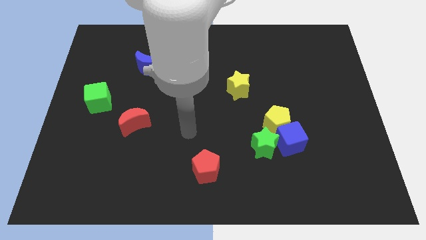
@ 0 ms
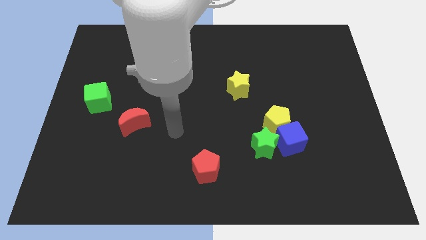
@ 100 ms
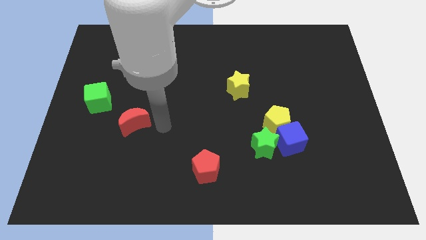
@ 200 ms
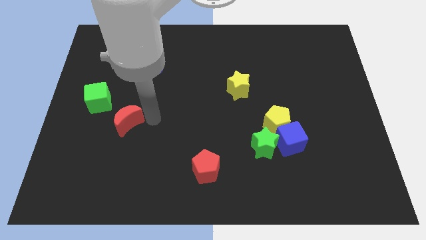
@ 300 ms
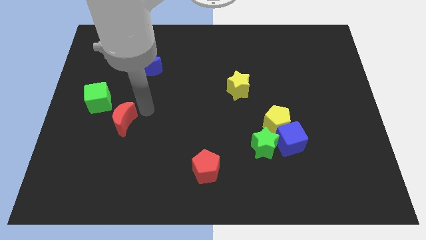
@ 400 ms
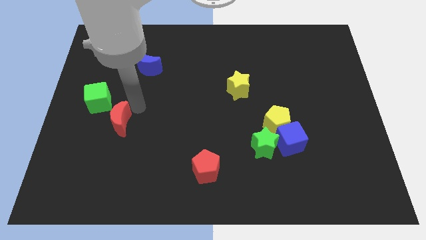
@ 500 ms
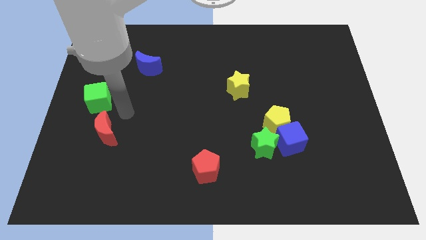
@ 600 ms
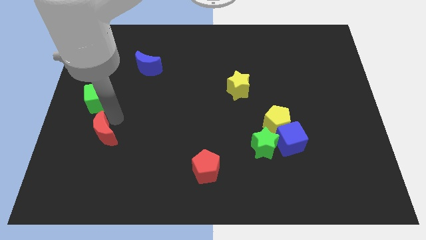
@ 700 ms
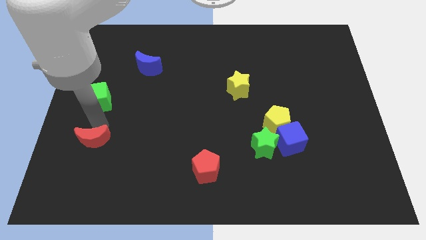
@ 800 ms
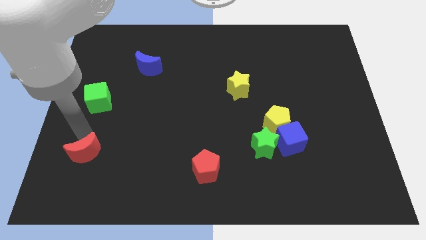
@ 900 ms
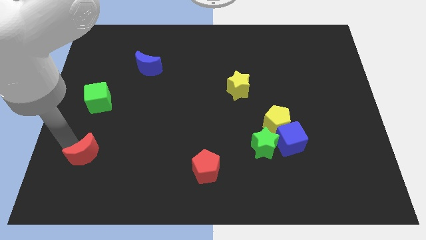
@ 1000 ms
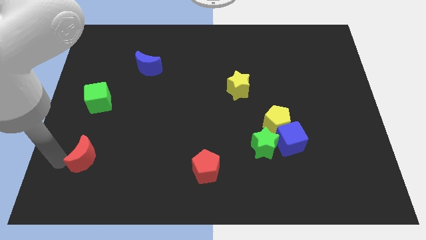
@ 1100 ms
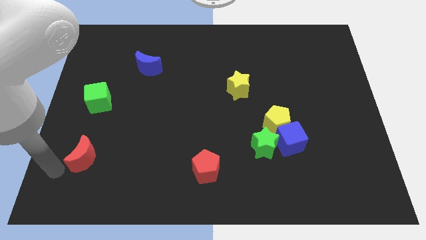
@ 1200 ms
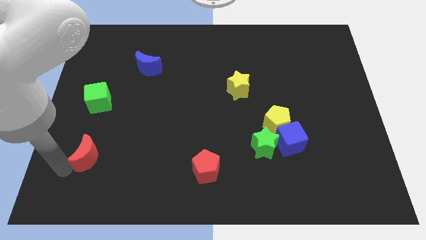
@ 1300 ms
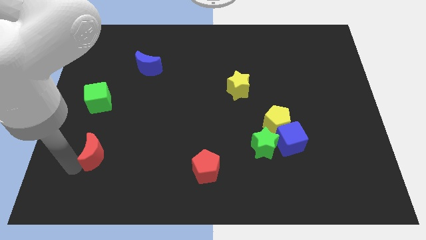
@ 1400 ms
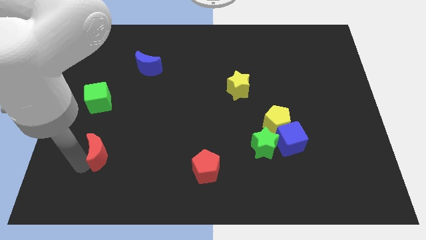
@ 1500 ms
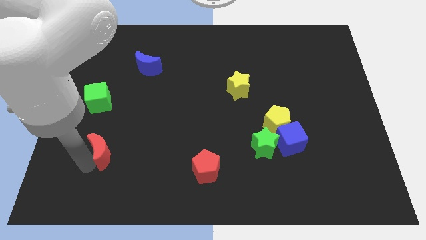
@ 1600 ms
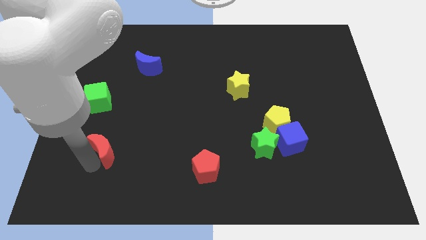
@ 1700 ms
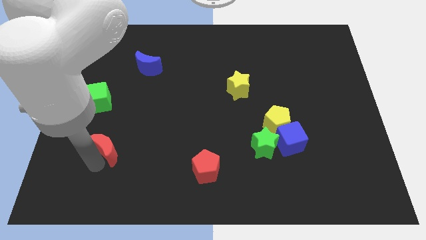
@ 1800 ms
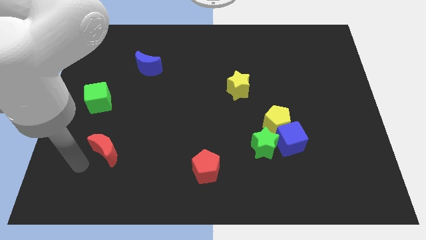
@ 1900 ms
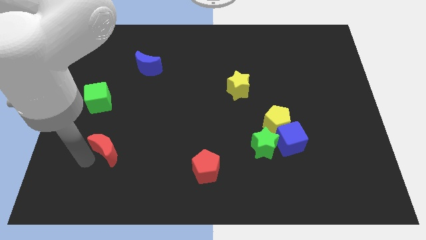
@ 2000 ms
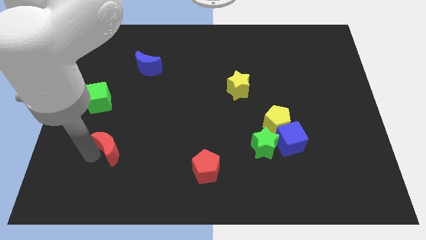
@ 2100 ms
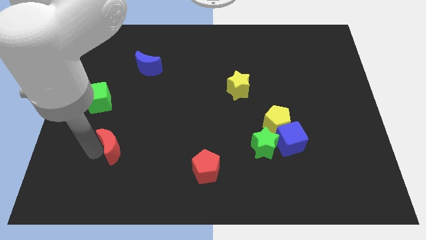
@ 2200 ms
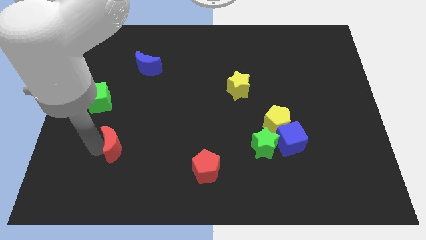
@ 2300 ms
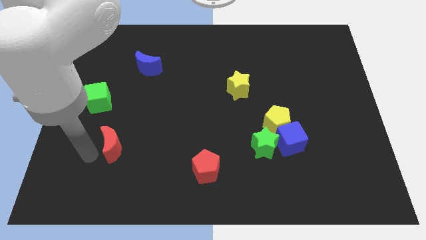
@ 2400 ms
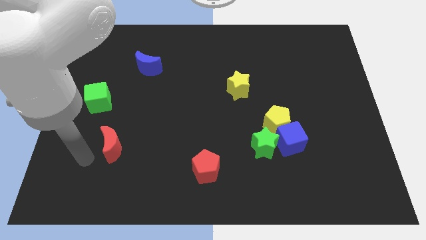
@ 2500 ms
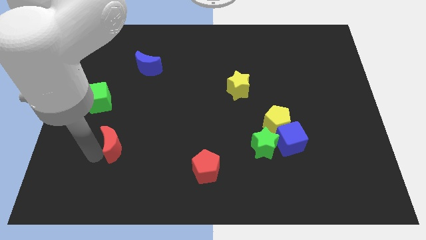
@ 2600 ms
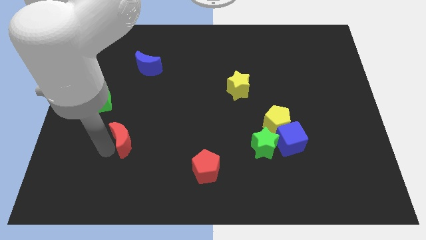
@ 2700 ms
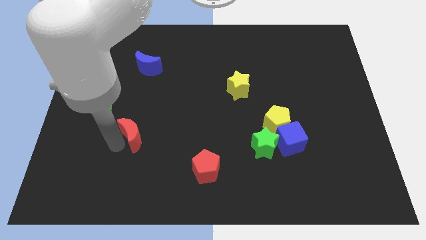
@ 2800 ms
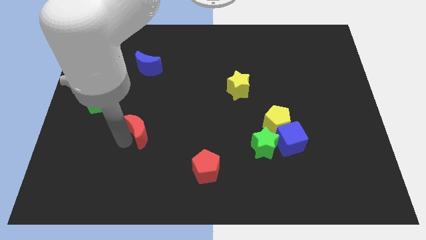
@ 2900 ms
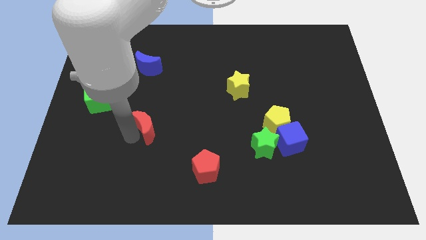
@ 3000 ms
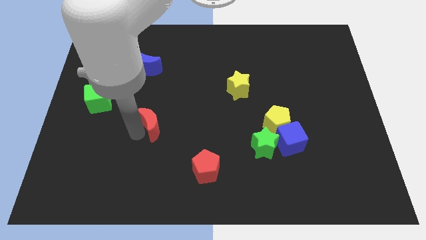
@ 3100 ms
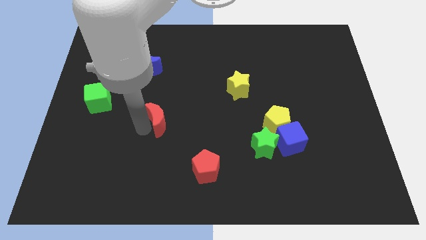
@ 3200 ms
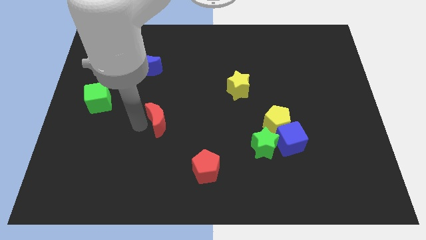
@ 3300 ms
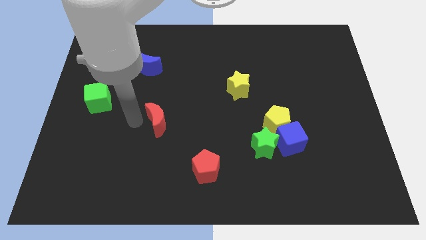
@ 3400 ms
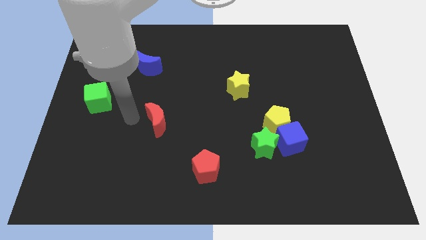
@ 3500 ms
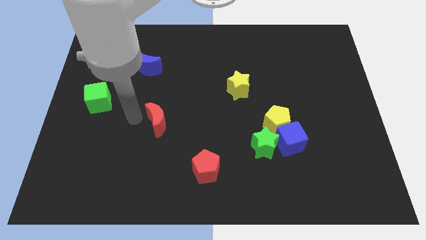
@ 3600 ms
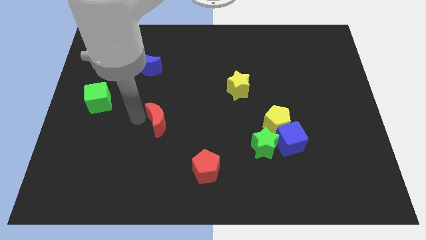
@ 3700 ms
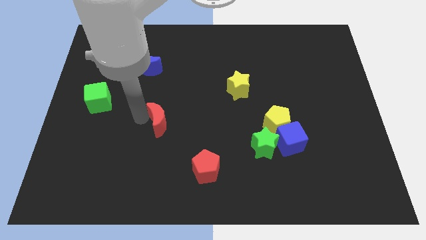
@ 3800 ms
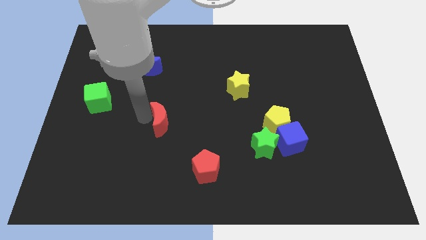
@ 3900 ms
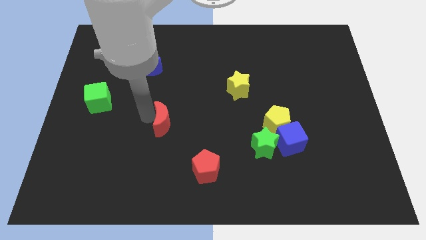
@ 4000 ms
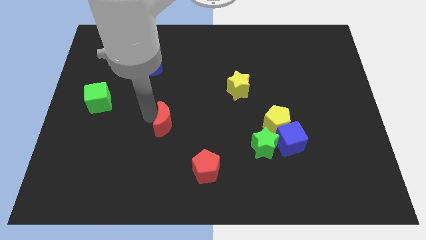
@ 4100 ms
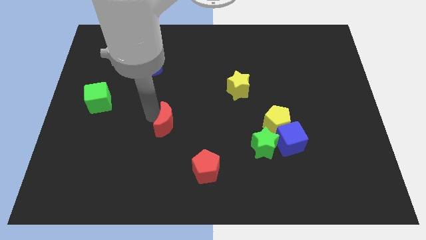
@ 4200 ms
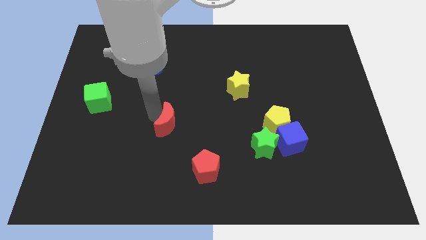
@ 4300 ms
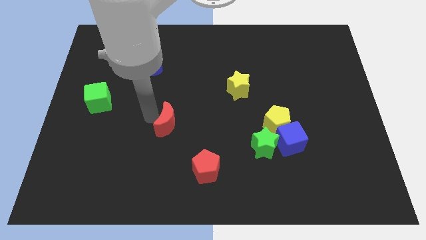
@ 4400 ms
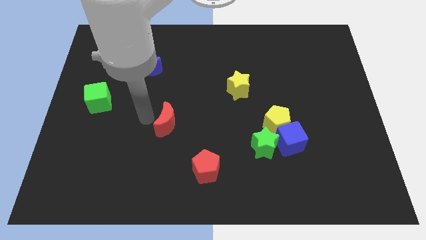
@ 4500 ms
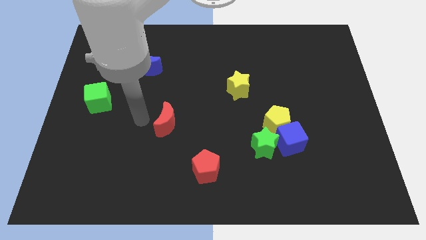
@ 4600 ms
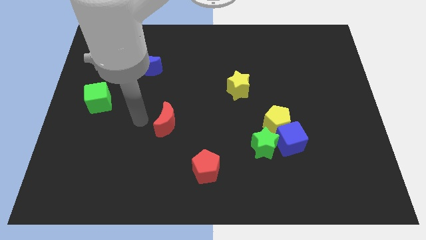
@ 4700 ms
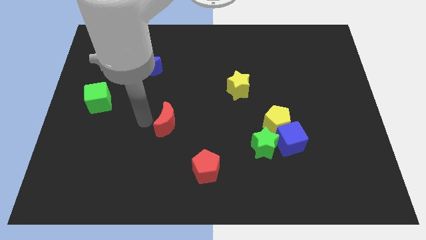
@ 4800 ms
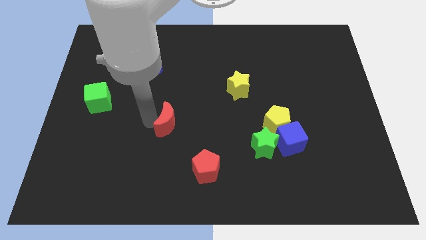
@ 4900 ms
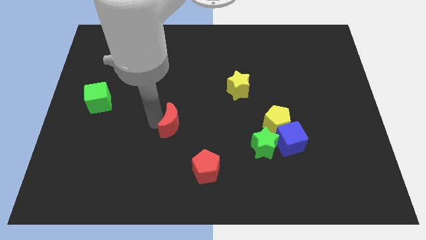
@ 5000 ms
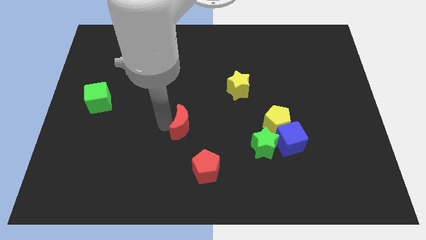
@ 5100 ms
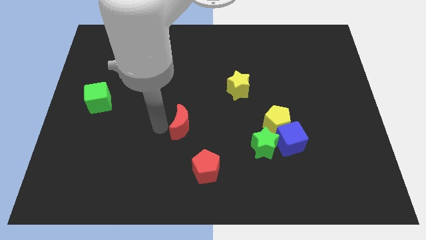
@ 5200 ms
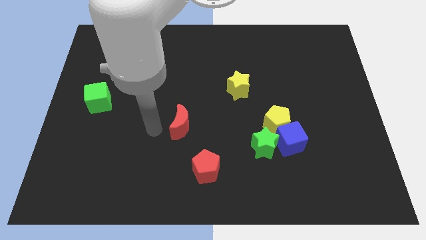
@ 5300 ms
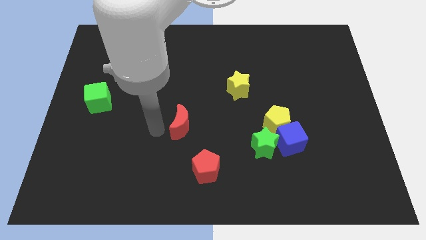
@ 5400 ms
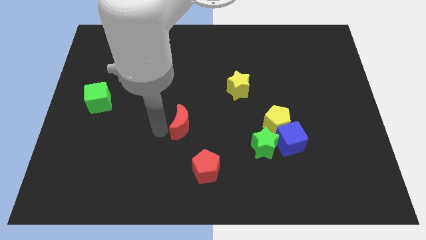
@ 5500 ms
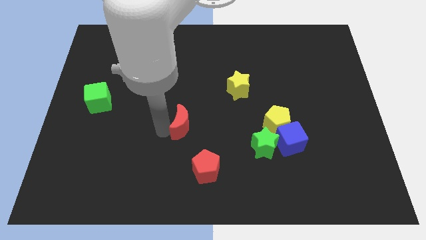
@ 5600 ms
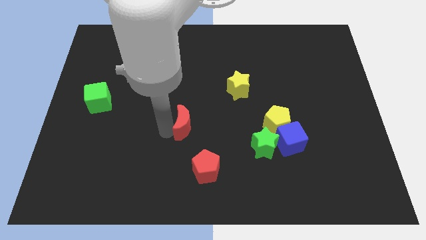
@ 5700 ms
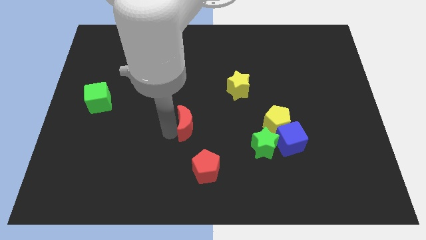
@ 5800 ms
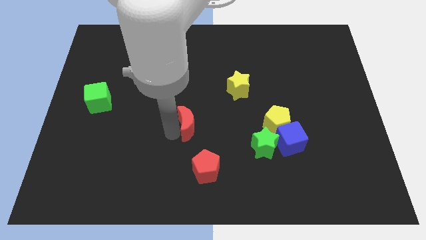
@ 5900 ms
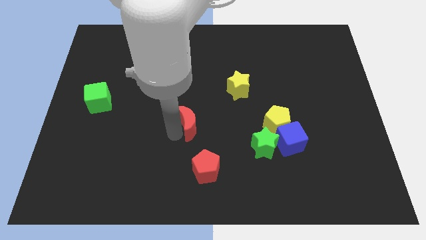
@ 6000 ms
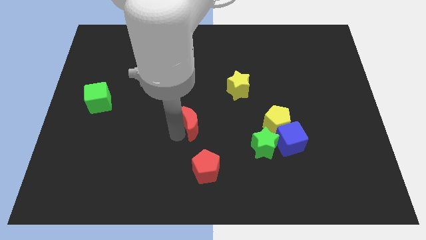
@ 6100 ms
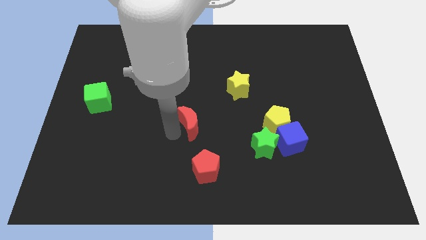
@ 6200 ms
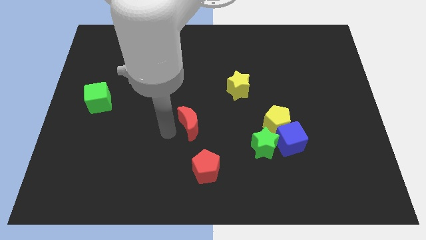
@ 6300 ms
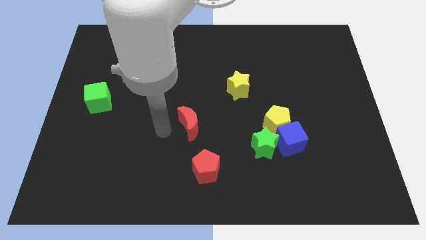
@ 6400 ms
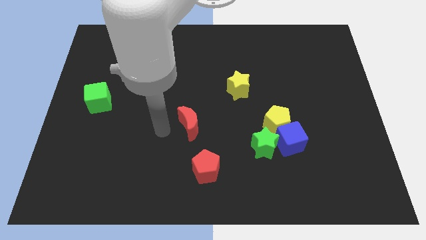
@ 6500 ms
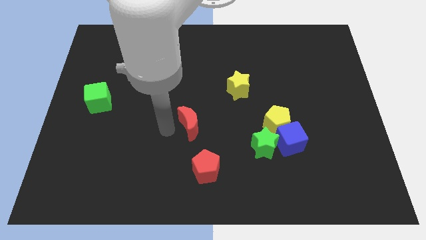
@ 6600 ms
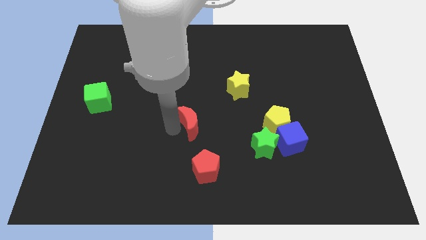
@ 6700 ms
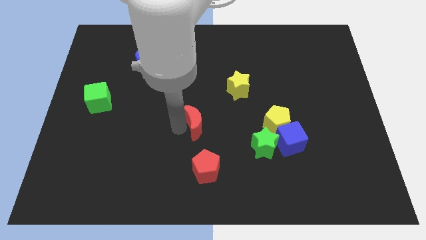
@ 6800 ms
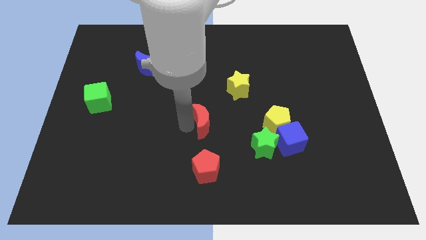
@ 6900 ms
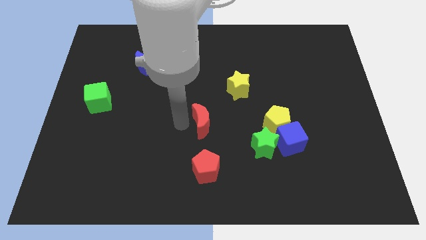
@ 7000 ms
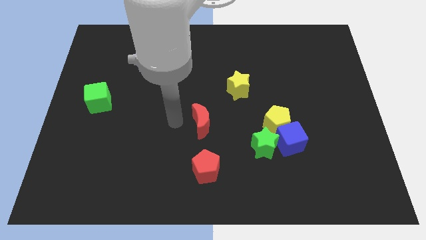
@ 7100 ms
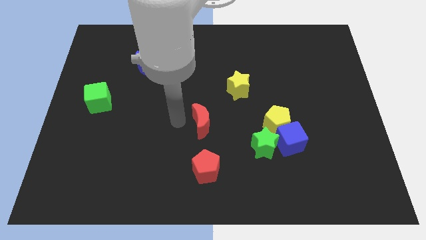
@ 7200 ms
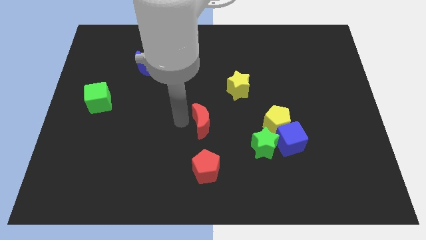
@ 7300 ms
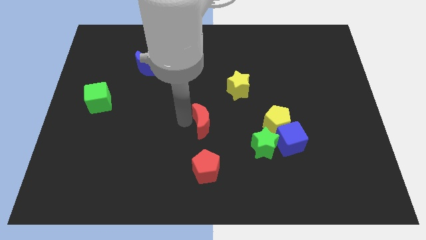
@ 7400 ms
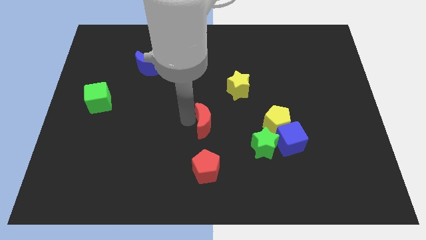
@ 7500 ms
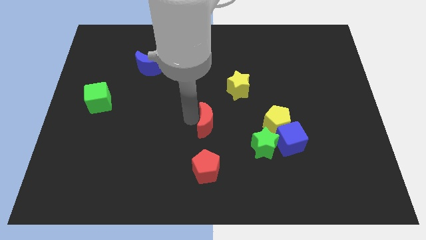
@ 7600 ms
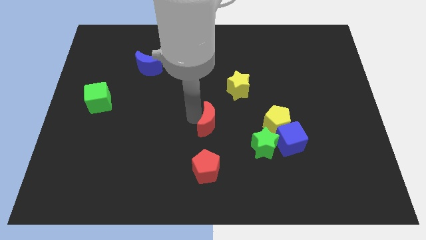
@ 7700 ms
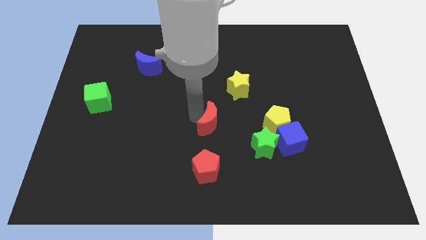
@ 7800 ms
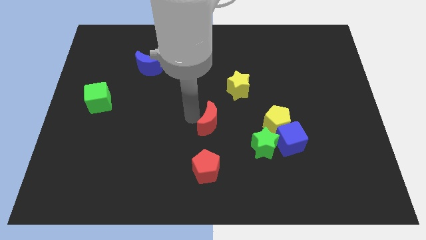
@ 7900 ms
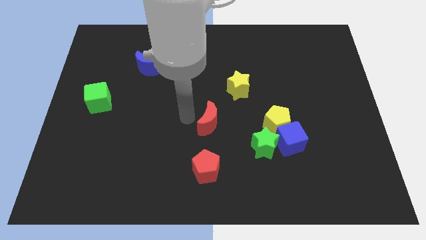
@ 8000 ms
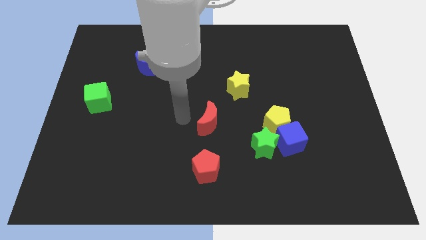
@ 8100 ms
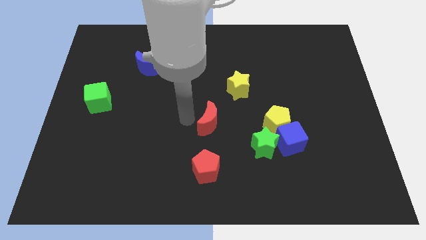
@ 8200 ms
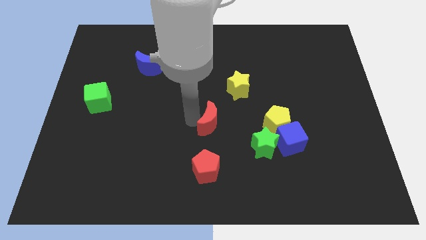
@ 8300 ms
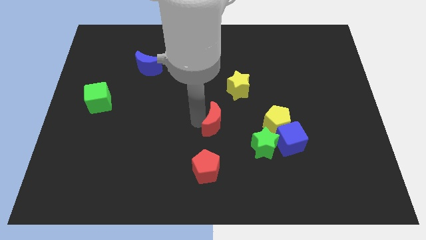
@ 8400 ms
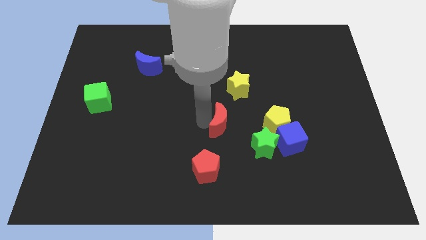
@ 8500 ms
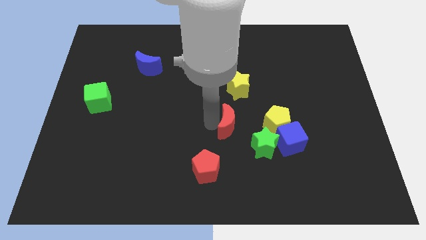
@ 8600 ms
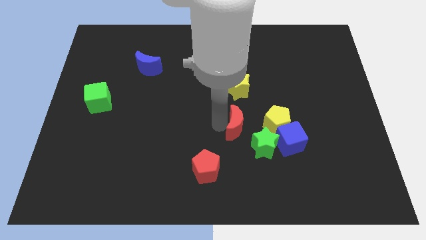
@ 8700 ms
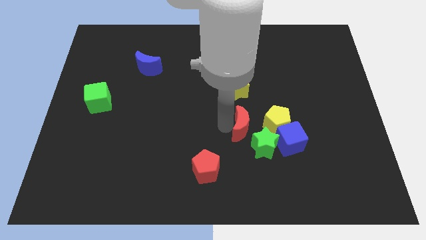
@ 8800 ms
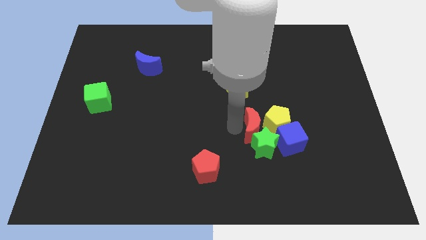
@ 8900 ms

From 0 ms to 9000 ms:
push the red moon towards the yellow pentagon
